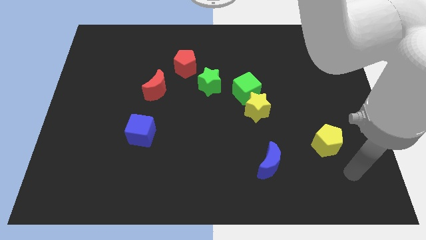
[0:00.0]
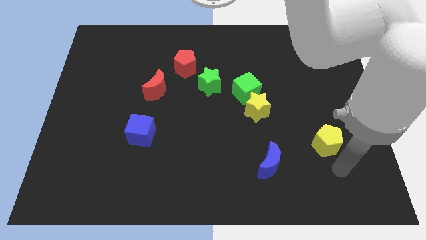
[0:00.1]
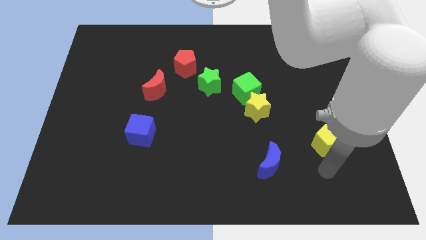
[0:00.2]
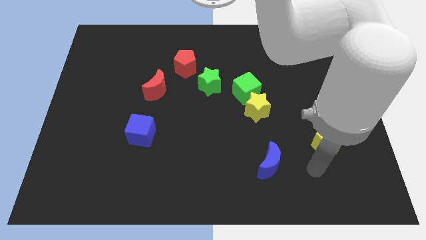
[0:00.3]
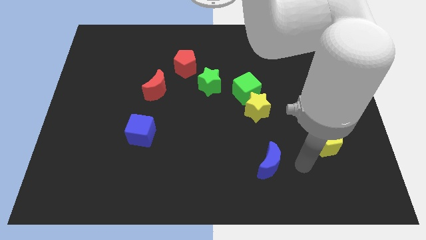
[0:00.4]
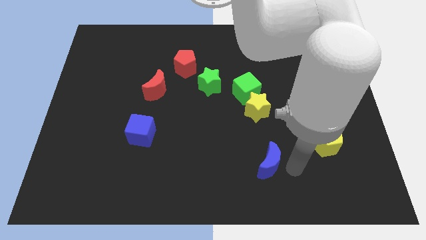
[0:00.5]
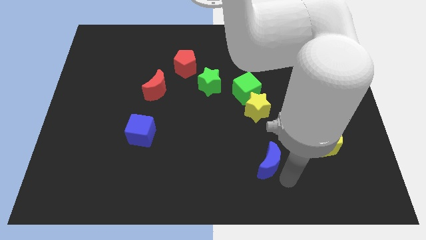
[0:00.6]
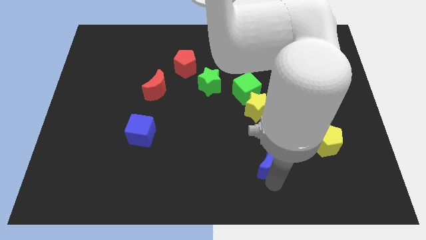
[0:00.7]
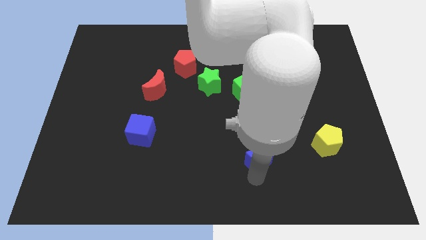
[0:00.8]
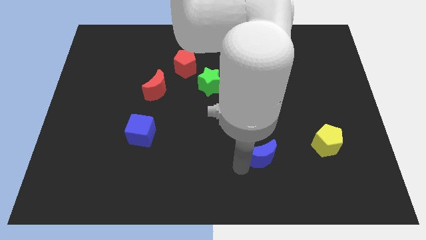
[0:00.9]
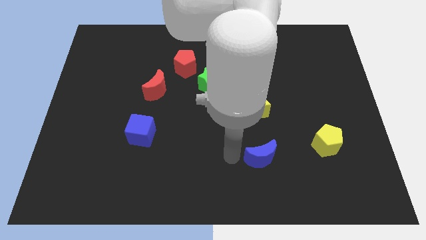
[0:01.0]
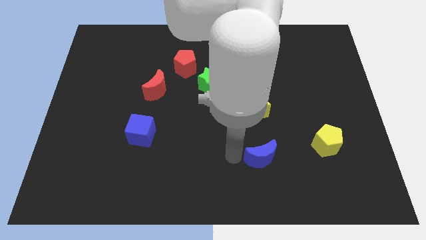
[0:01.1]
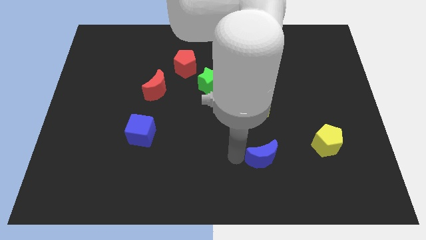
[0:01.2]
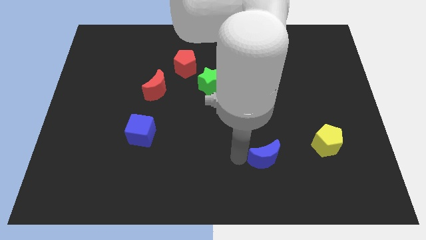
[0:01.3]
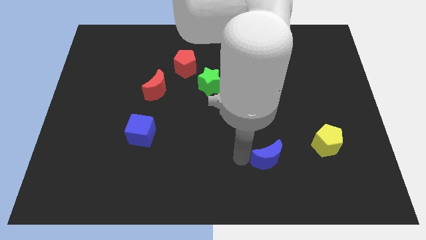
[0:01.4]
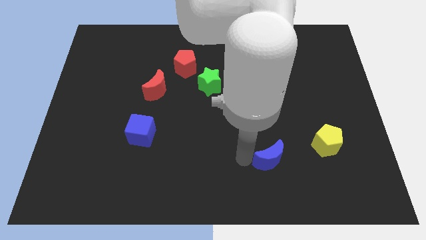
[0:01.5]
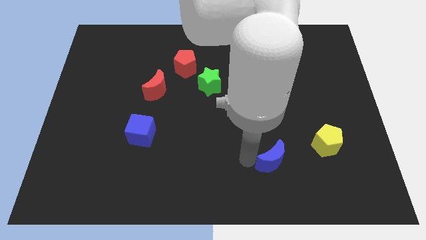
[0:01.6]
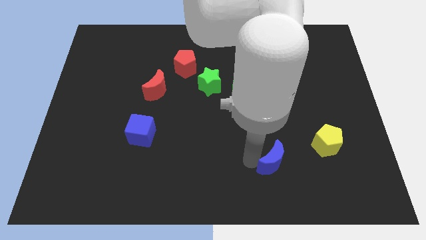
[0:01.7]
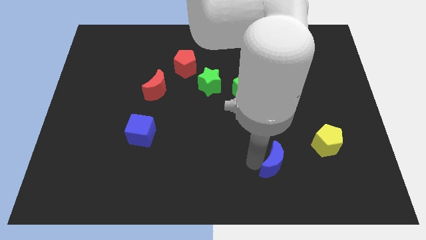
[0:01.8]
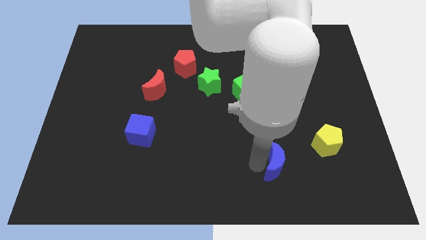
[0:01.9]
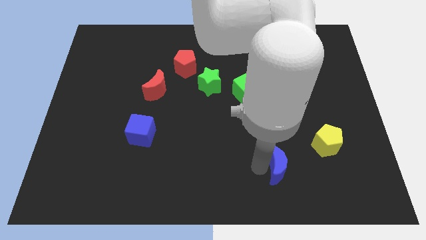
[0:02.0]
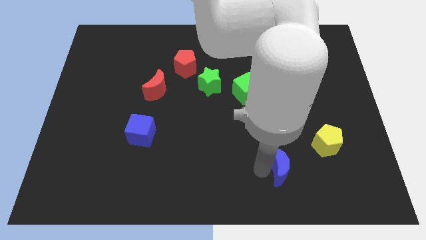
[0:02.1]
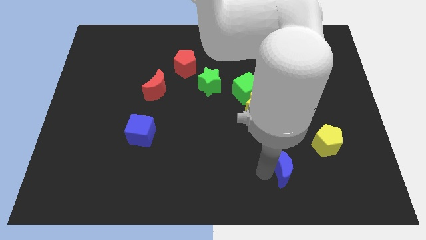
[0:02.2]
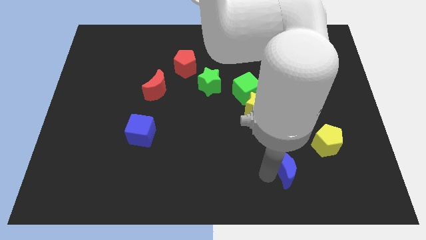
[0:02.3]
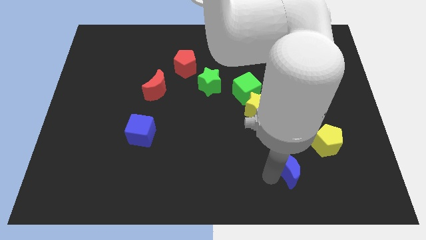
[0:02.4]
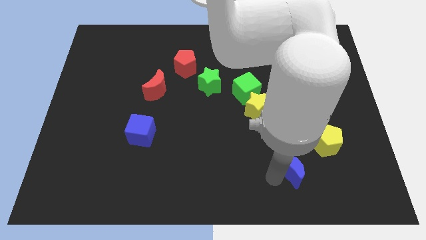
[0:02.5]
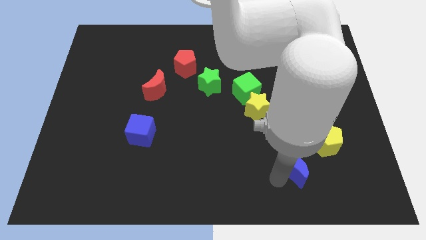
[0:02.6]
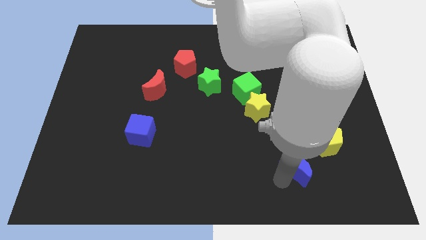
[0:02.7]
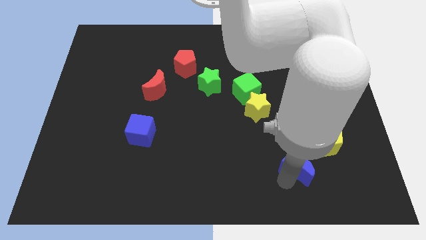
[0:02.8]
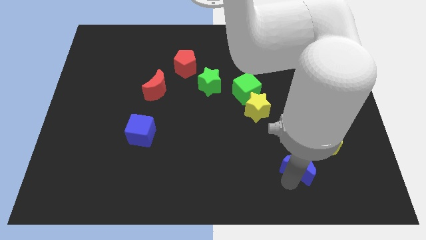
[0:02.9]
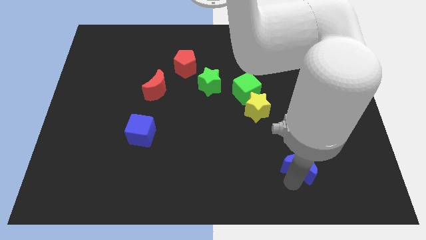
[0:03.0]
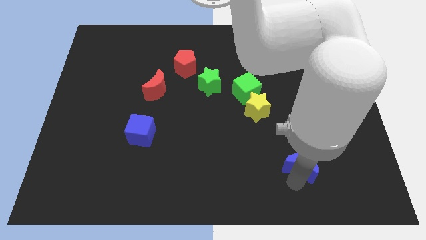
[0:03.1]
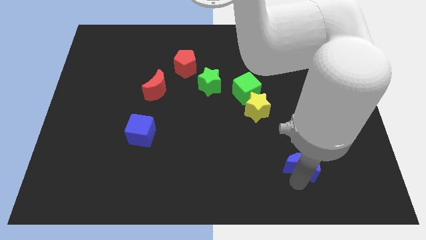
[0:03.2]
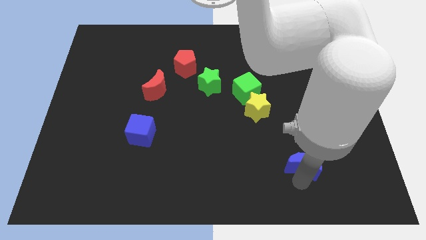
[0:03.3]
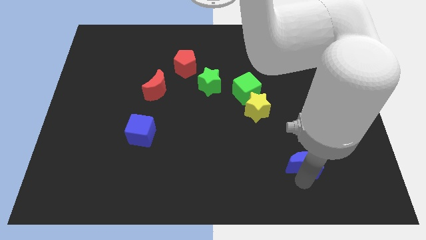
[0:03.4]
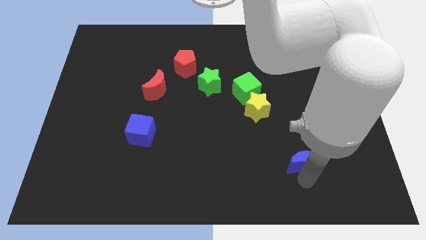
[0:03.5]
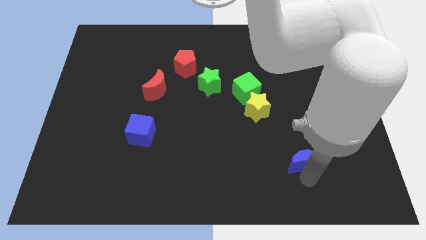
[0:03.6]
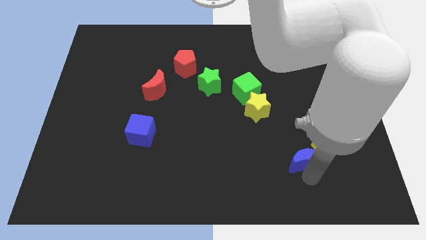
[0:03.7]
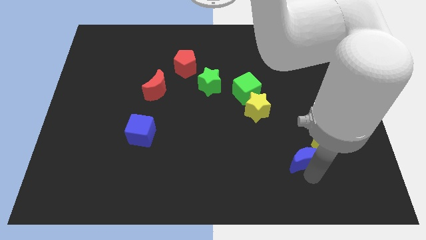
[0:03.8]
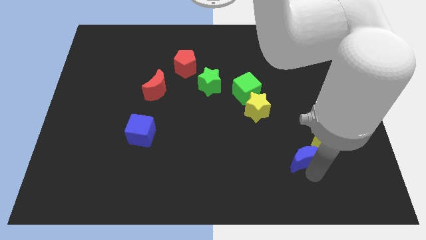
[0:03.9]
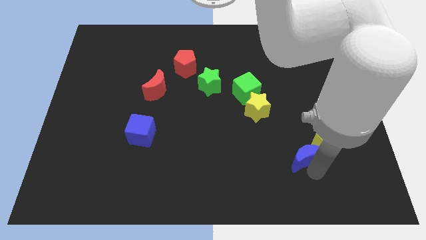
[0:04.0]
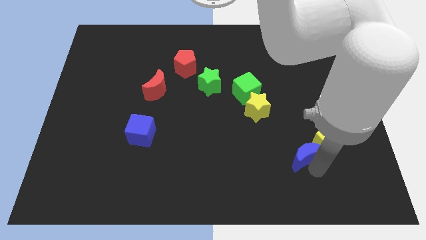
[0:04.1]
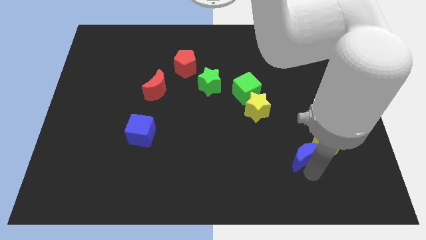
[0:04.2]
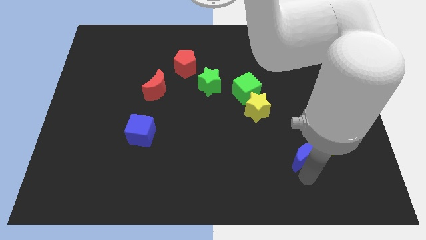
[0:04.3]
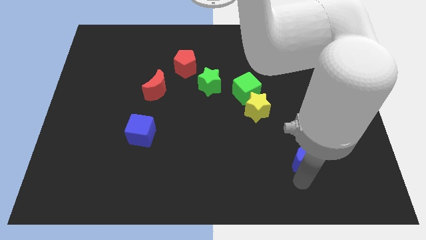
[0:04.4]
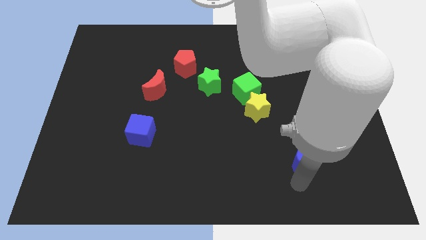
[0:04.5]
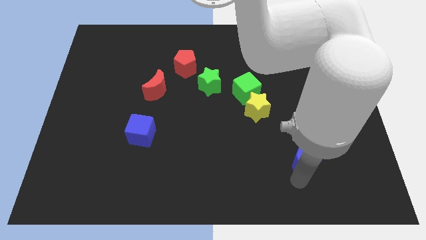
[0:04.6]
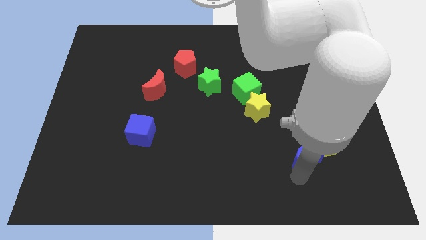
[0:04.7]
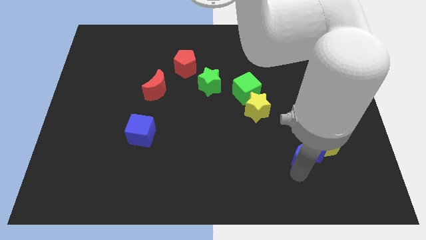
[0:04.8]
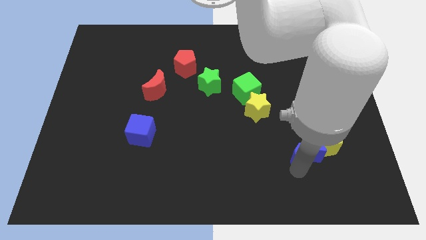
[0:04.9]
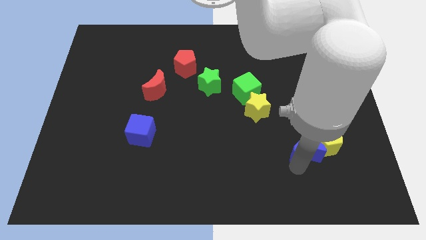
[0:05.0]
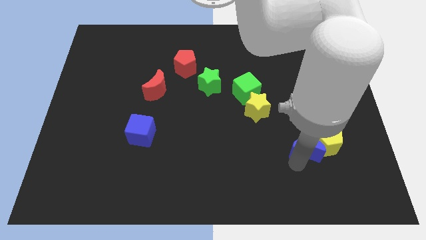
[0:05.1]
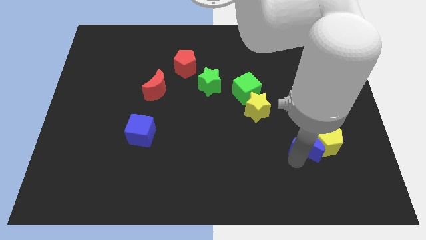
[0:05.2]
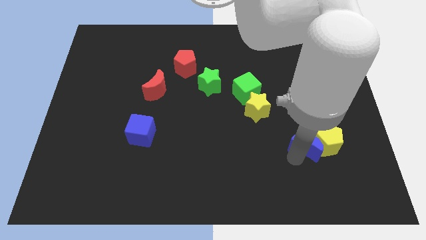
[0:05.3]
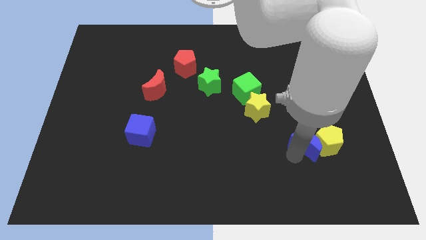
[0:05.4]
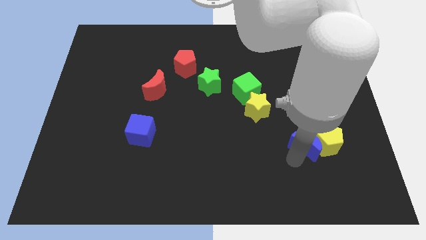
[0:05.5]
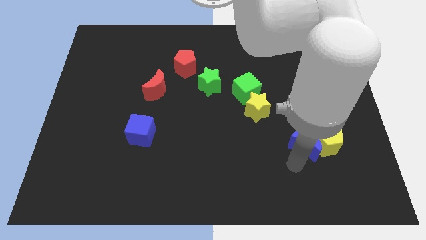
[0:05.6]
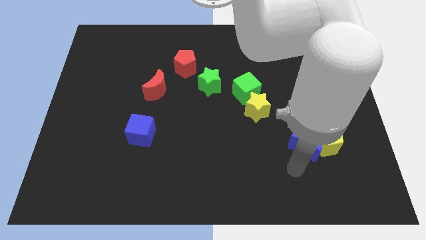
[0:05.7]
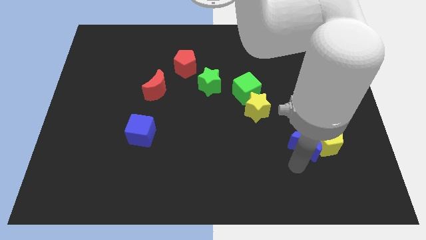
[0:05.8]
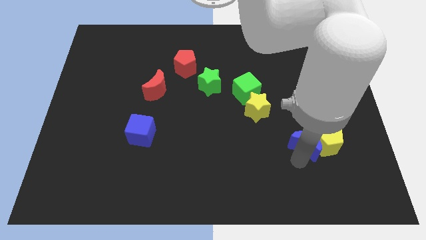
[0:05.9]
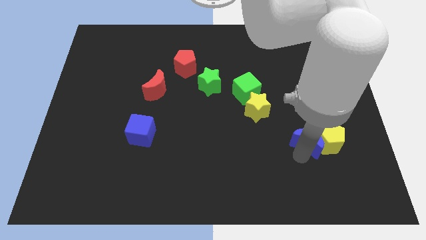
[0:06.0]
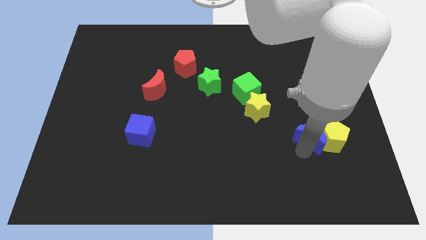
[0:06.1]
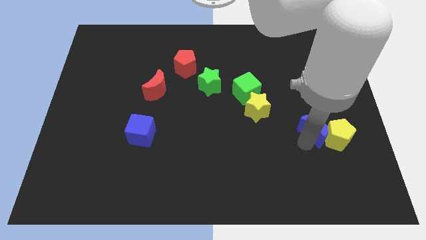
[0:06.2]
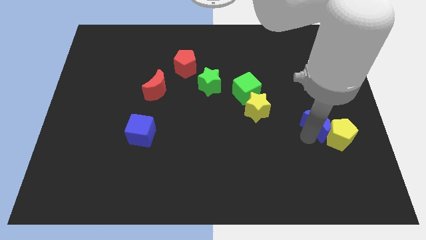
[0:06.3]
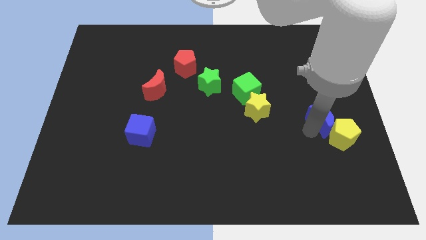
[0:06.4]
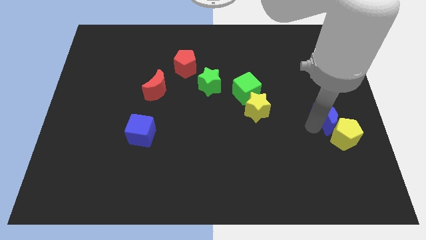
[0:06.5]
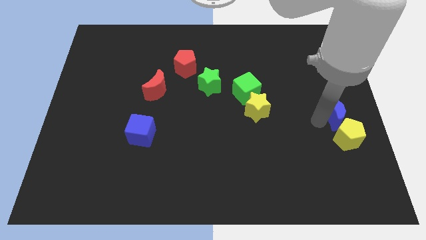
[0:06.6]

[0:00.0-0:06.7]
put the blue moon to the center right

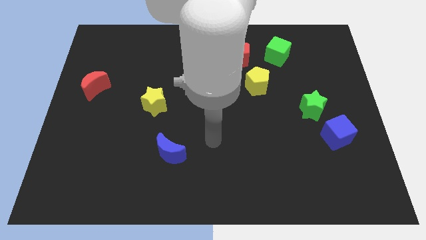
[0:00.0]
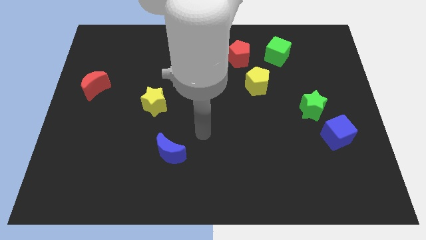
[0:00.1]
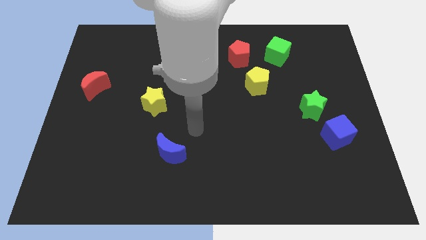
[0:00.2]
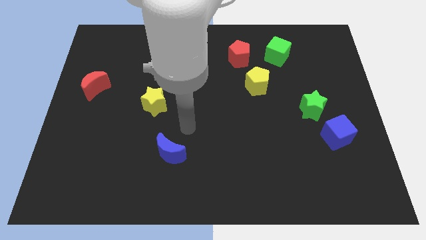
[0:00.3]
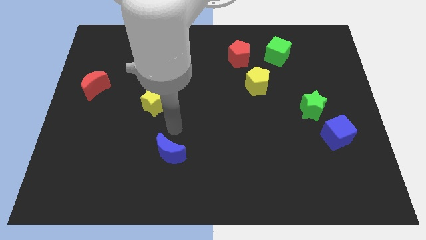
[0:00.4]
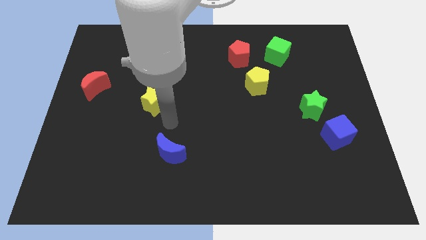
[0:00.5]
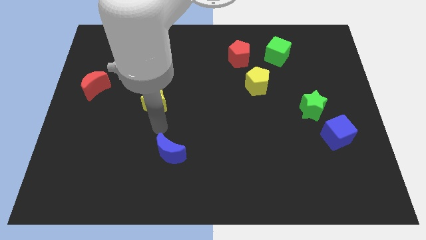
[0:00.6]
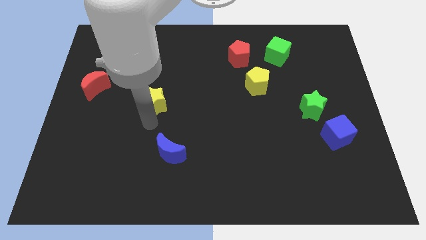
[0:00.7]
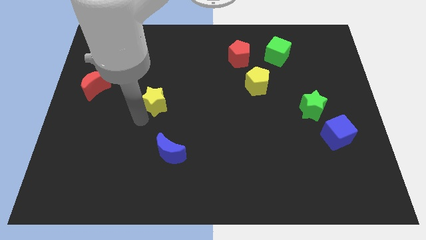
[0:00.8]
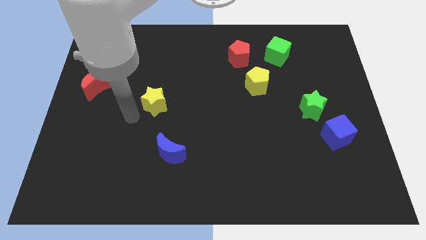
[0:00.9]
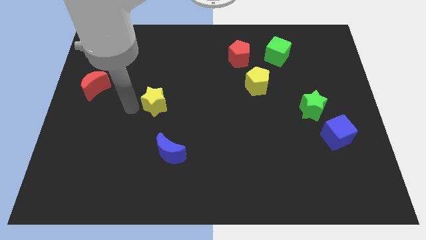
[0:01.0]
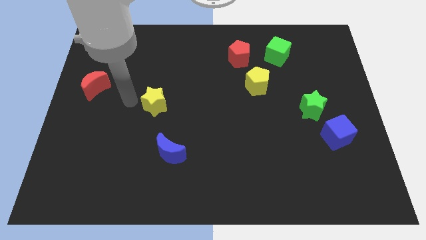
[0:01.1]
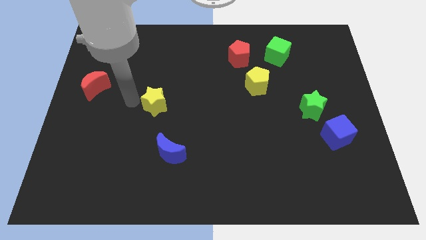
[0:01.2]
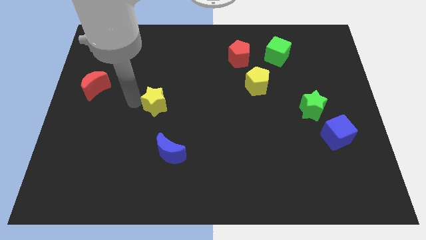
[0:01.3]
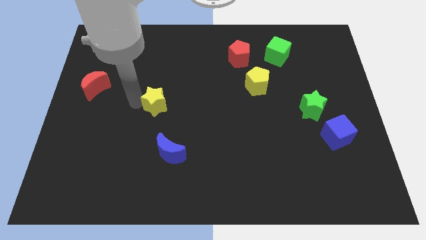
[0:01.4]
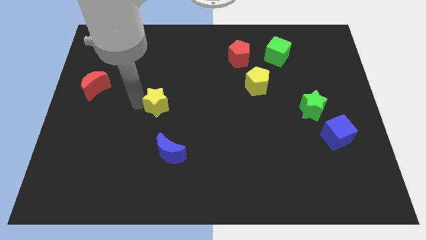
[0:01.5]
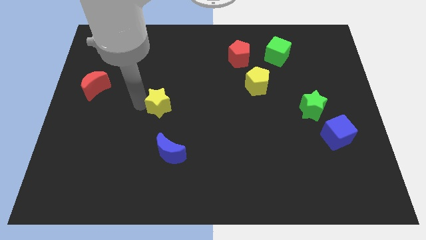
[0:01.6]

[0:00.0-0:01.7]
slide the yellow star to the center of the board
